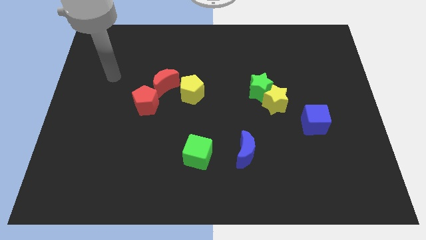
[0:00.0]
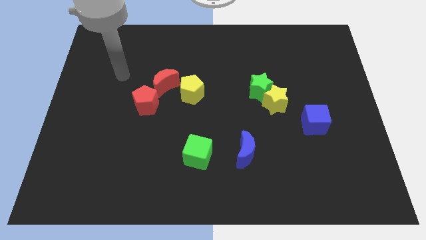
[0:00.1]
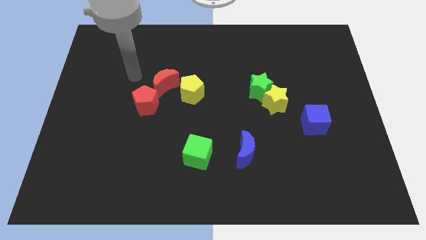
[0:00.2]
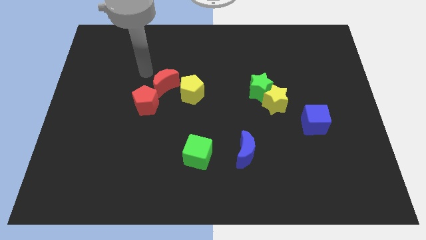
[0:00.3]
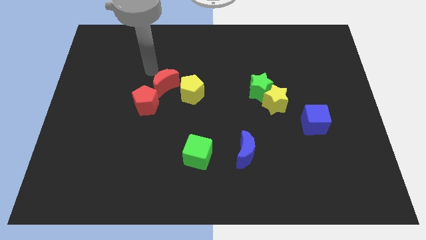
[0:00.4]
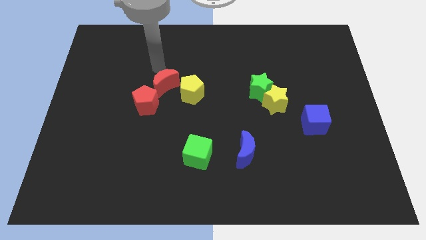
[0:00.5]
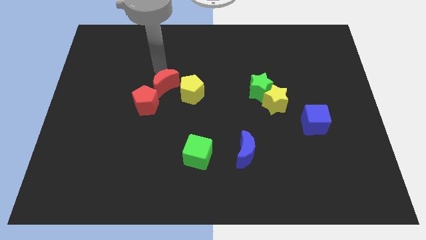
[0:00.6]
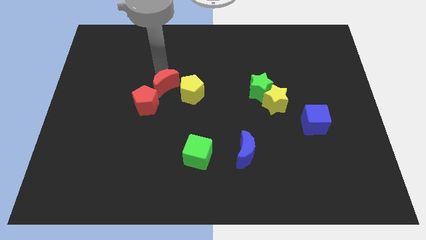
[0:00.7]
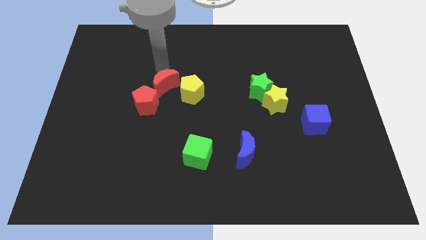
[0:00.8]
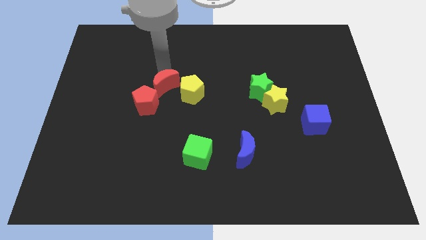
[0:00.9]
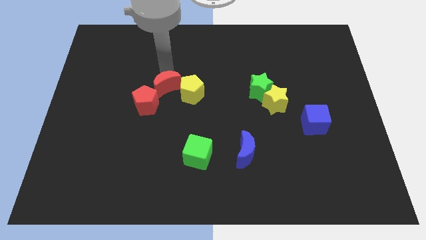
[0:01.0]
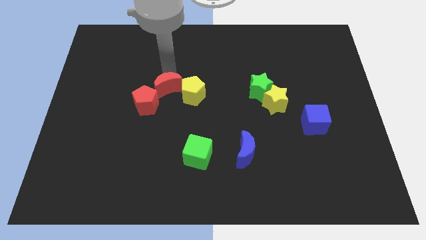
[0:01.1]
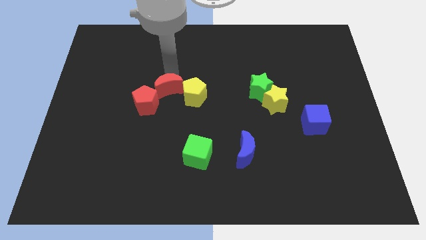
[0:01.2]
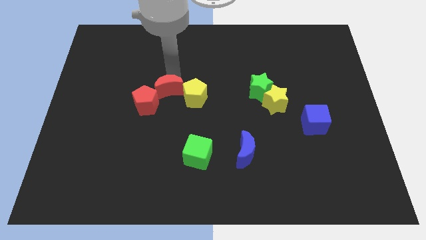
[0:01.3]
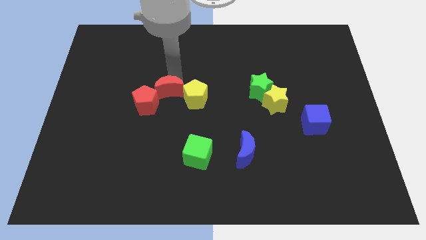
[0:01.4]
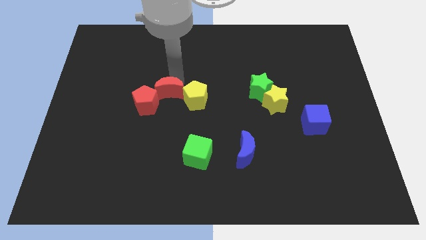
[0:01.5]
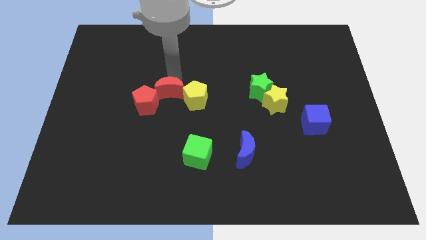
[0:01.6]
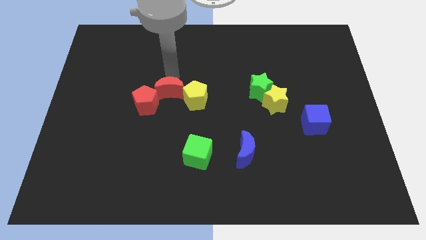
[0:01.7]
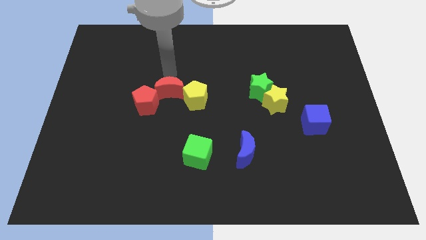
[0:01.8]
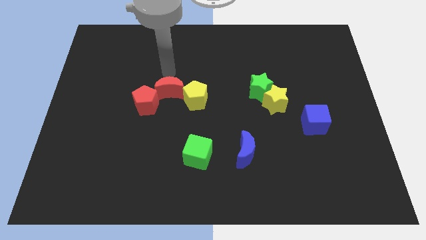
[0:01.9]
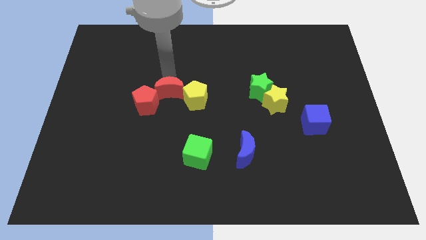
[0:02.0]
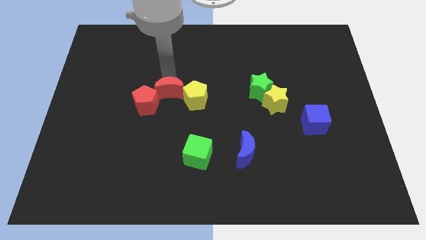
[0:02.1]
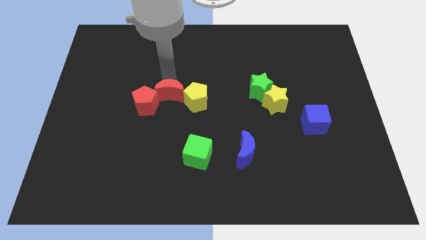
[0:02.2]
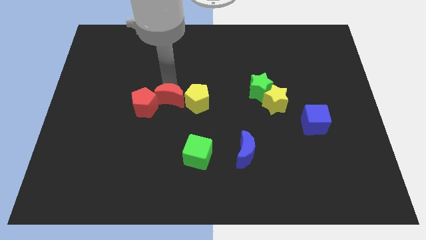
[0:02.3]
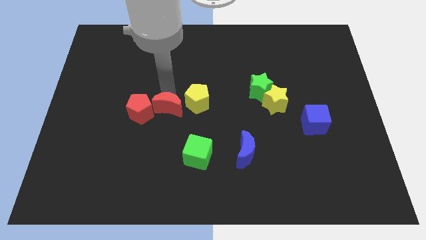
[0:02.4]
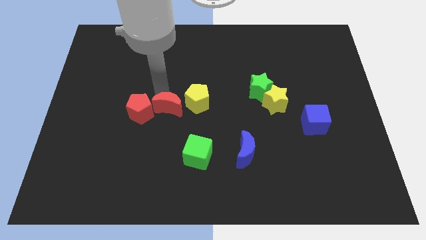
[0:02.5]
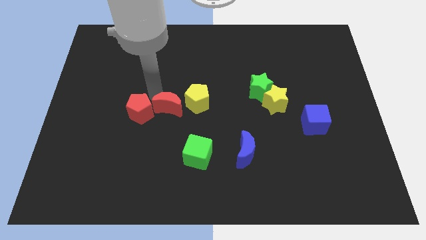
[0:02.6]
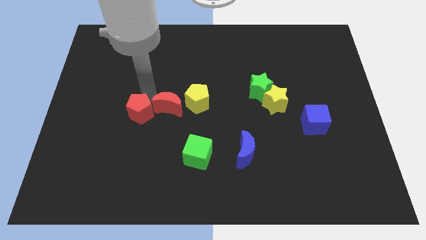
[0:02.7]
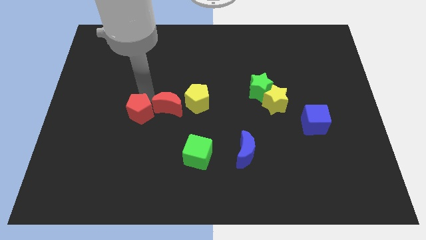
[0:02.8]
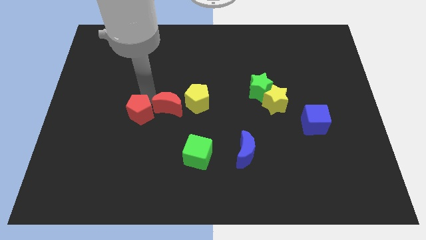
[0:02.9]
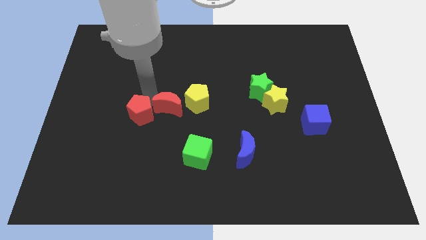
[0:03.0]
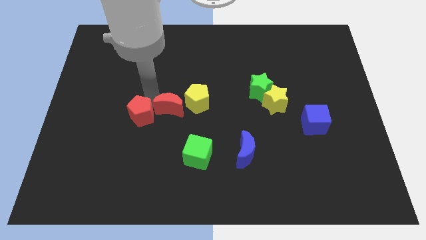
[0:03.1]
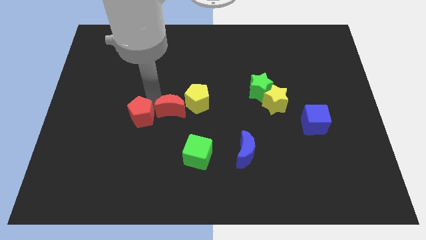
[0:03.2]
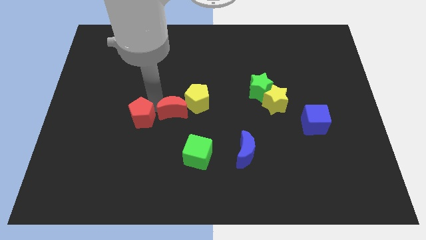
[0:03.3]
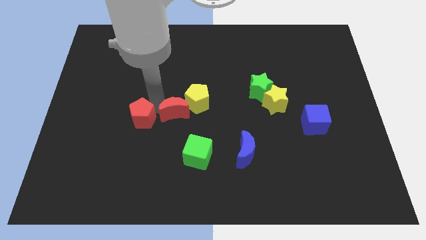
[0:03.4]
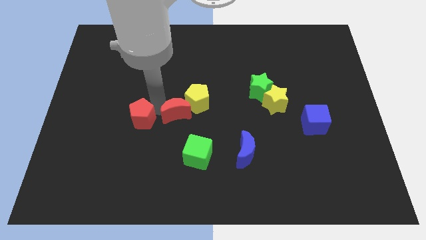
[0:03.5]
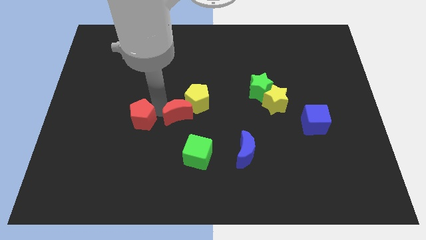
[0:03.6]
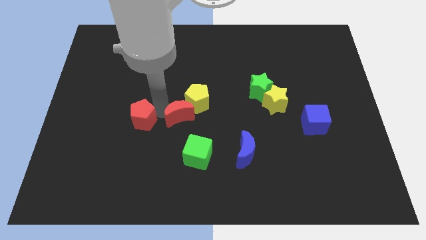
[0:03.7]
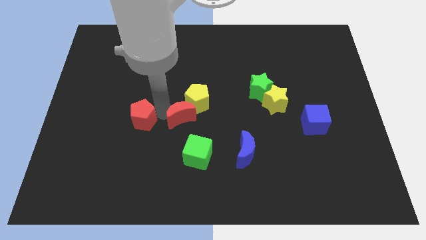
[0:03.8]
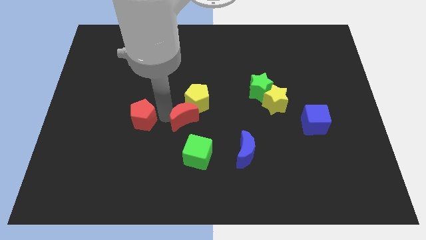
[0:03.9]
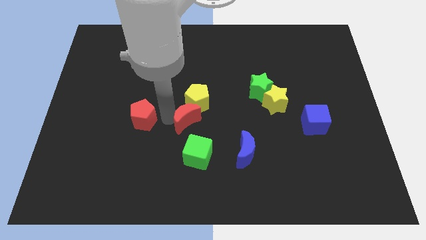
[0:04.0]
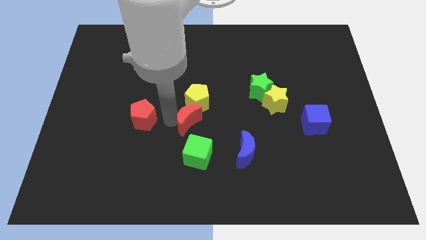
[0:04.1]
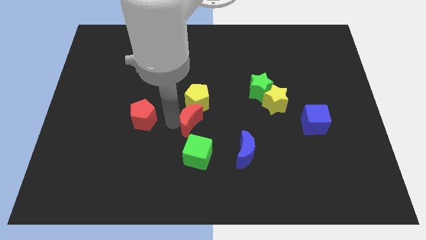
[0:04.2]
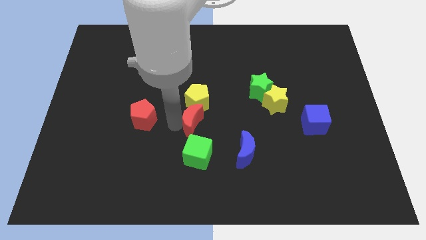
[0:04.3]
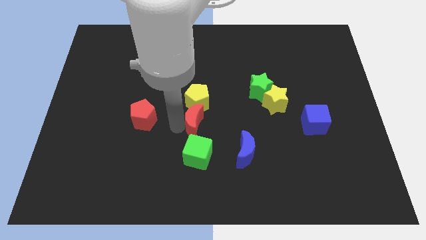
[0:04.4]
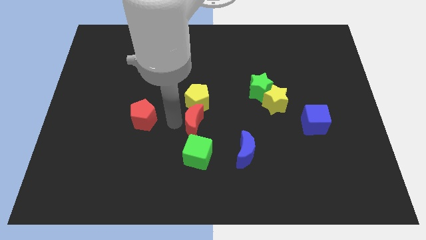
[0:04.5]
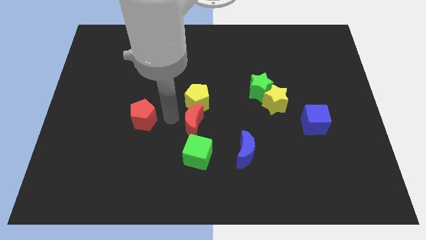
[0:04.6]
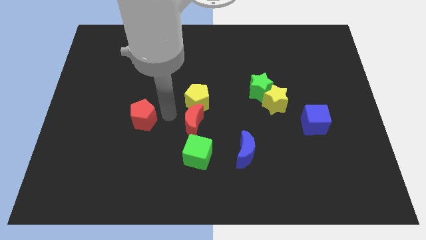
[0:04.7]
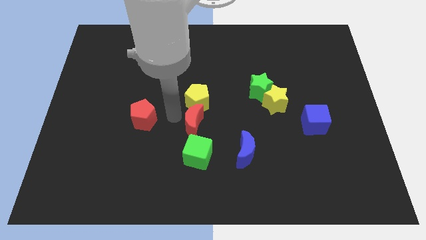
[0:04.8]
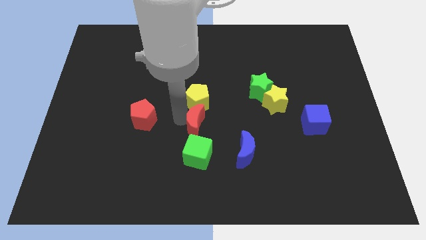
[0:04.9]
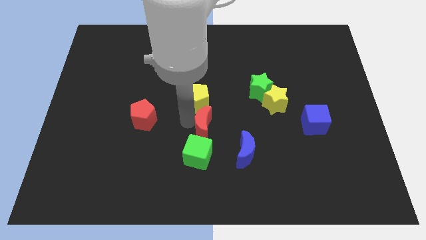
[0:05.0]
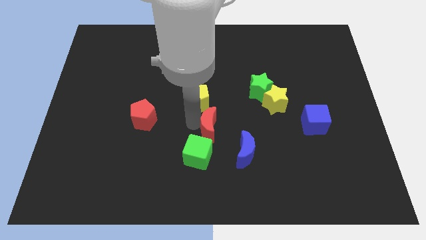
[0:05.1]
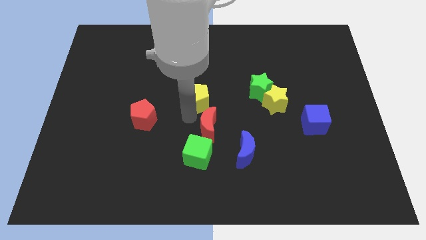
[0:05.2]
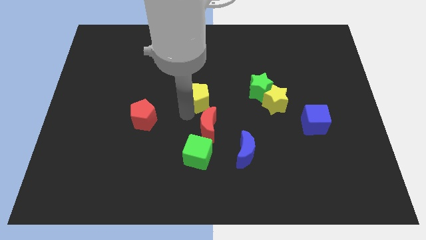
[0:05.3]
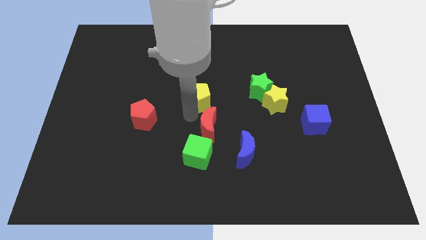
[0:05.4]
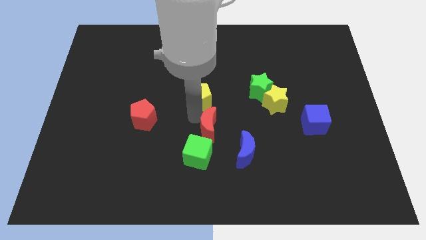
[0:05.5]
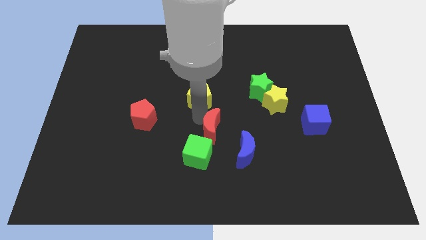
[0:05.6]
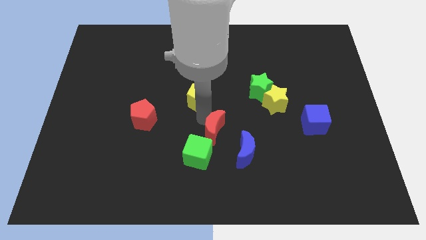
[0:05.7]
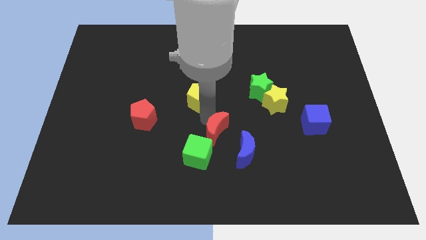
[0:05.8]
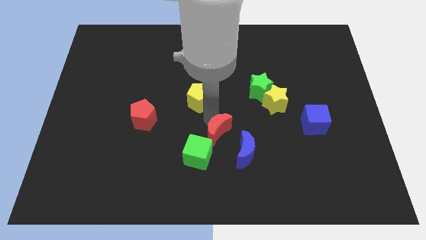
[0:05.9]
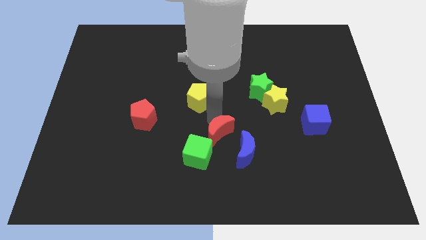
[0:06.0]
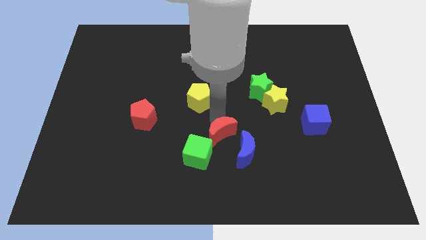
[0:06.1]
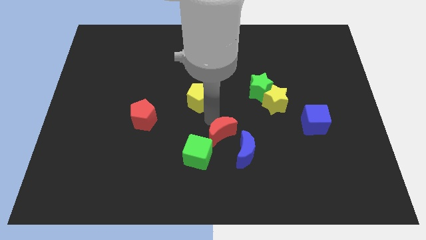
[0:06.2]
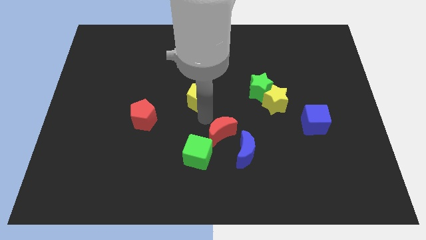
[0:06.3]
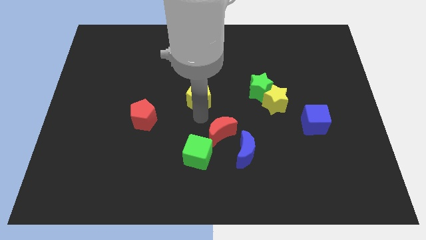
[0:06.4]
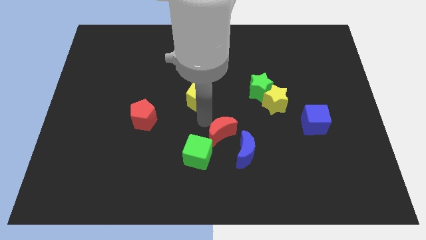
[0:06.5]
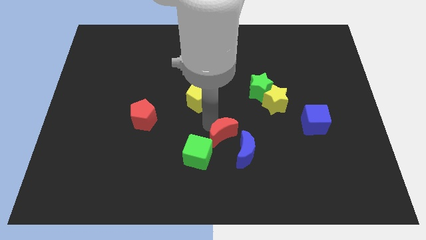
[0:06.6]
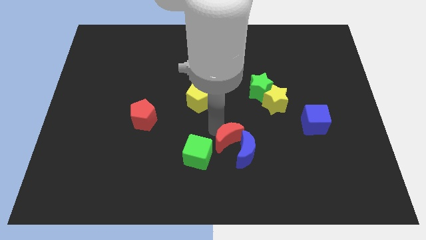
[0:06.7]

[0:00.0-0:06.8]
slide the red moon close to the blue moon
